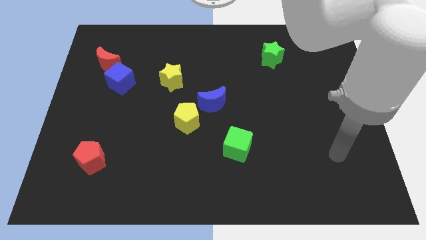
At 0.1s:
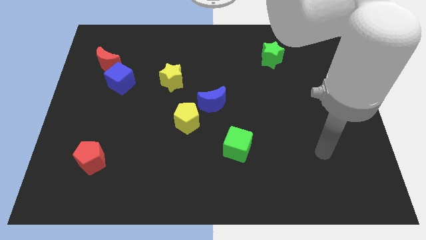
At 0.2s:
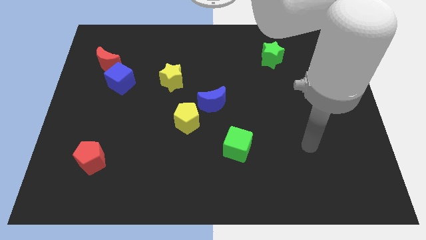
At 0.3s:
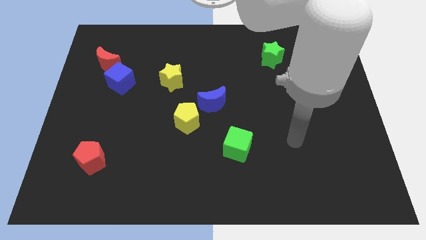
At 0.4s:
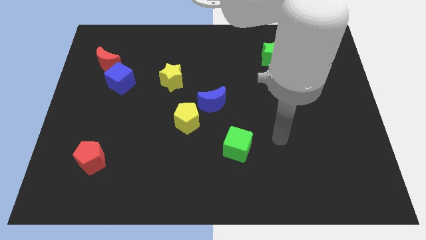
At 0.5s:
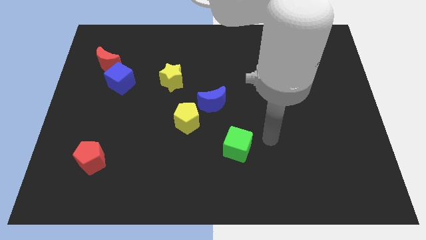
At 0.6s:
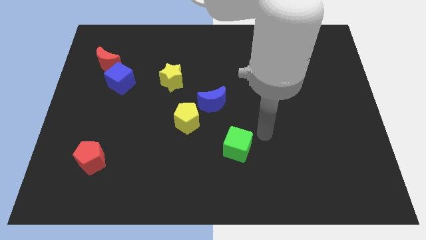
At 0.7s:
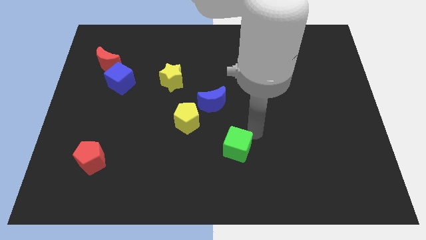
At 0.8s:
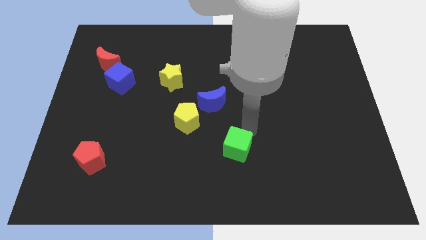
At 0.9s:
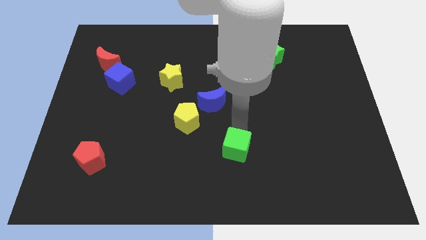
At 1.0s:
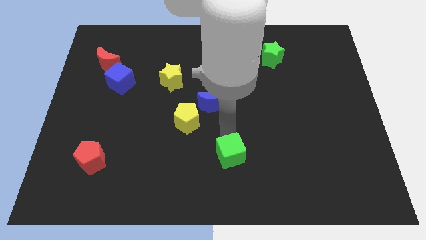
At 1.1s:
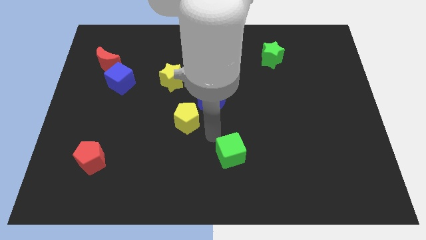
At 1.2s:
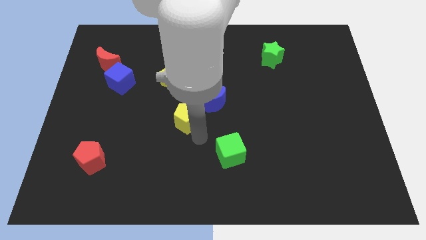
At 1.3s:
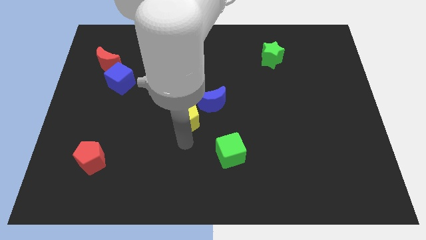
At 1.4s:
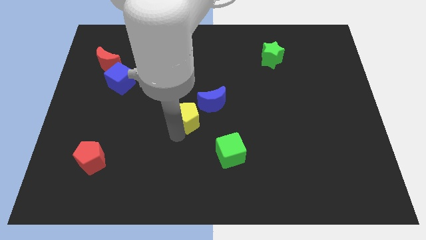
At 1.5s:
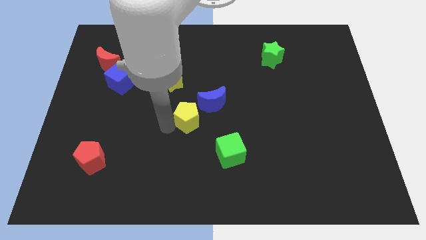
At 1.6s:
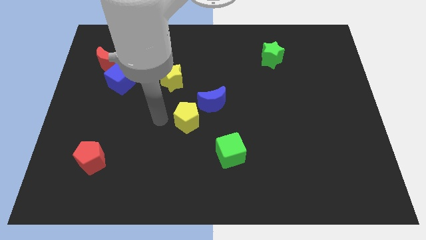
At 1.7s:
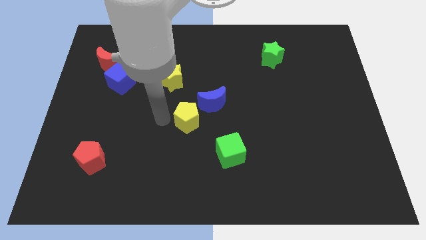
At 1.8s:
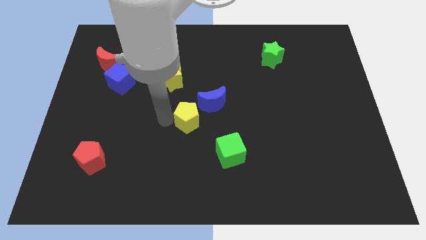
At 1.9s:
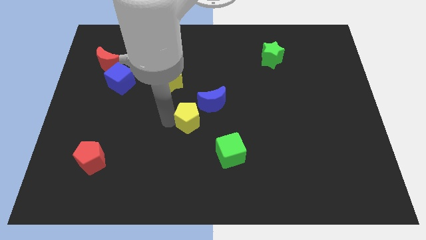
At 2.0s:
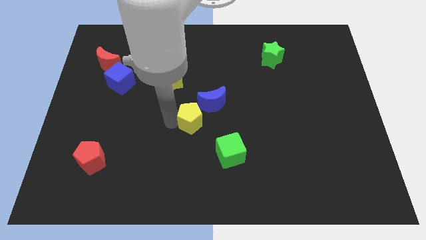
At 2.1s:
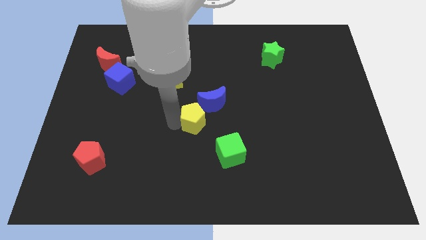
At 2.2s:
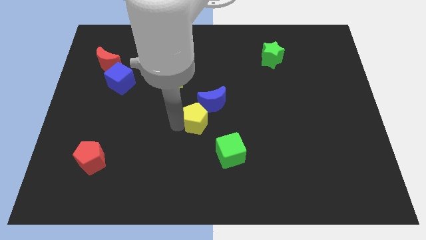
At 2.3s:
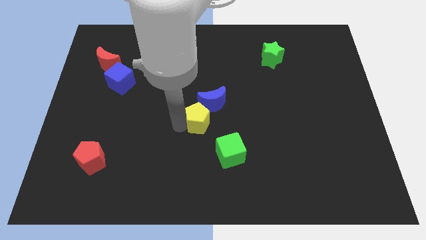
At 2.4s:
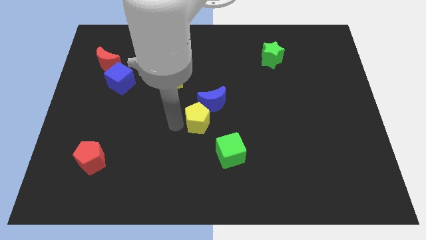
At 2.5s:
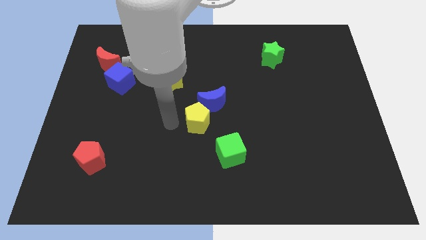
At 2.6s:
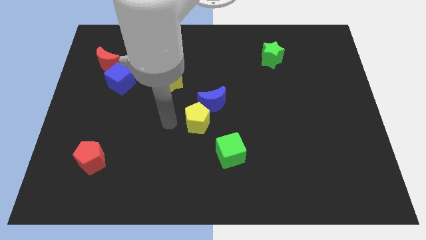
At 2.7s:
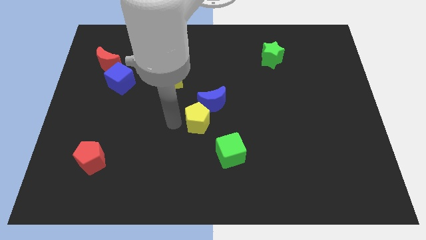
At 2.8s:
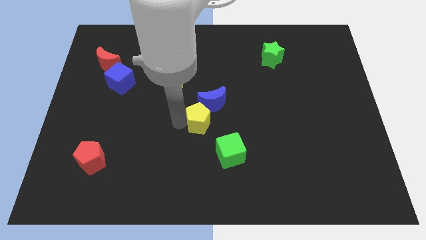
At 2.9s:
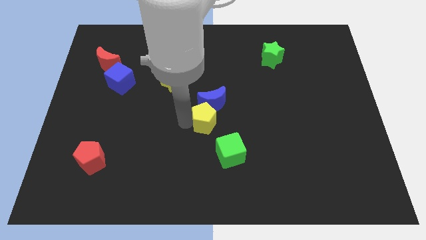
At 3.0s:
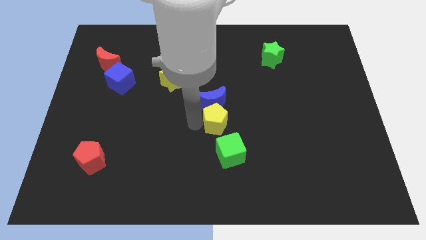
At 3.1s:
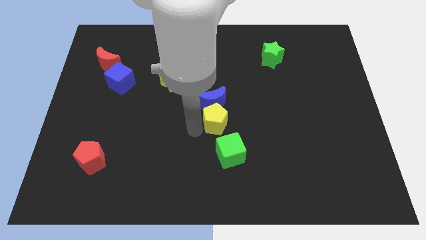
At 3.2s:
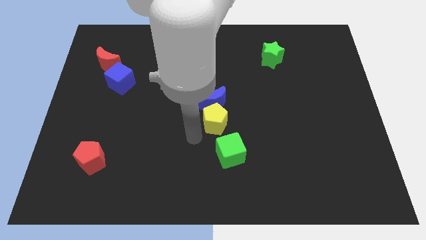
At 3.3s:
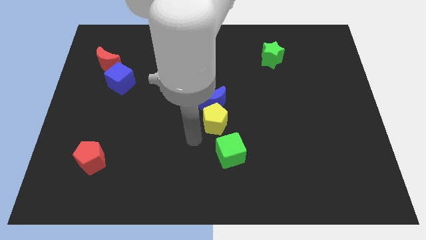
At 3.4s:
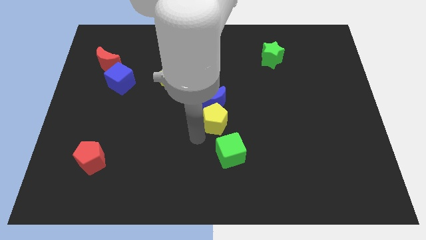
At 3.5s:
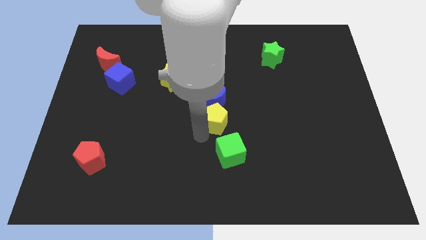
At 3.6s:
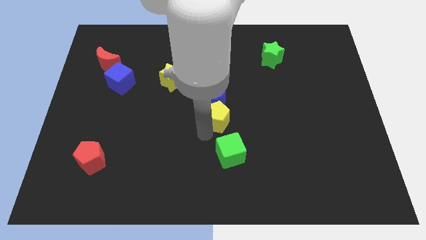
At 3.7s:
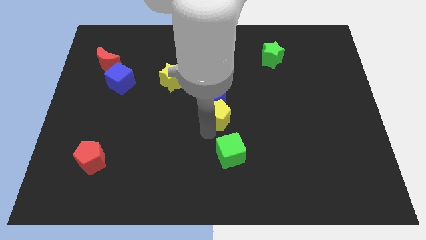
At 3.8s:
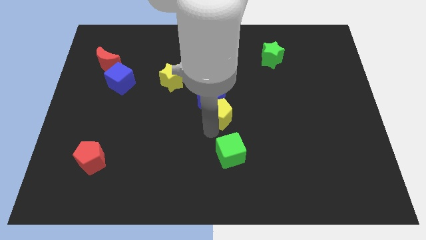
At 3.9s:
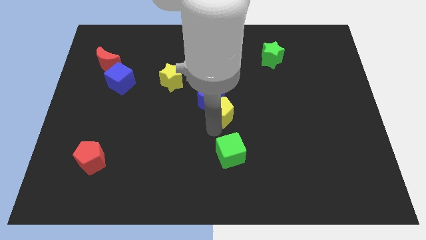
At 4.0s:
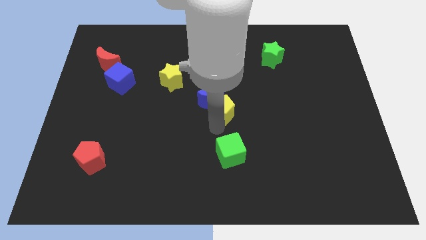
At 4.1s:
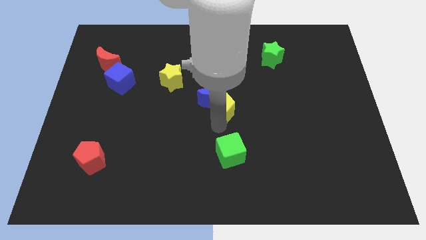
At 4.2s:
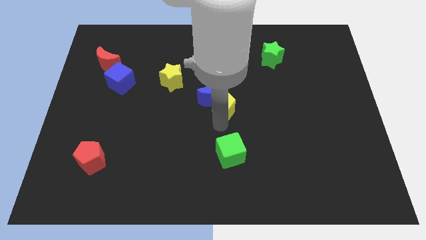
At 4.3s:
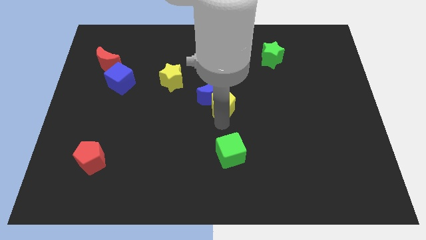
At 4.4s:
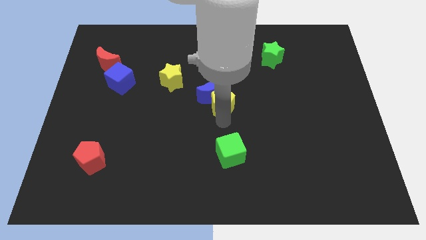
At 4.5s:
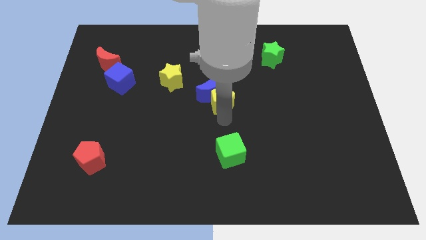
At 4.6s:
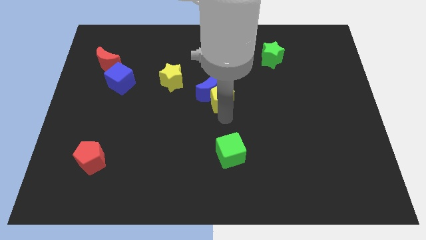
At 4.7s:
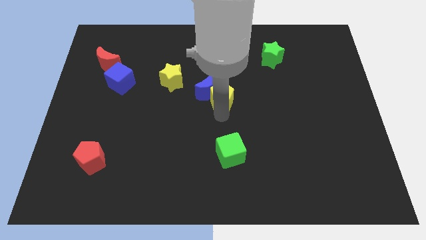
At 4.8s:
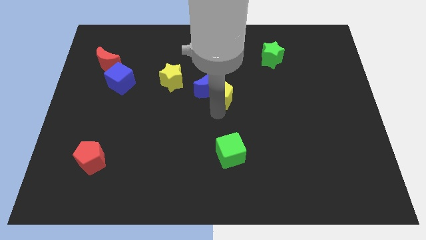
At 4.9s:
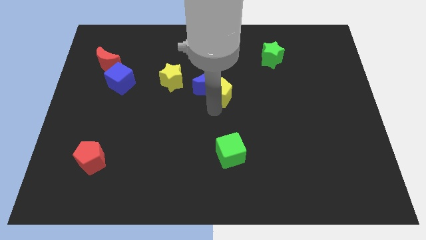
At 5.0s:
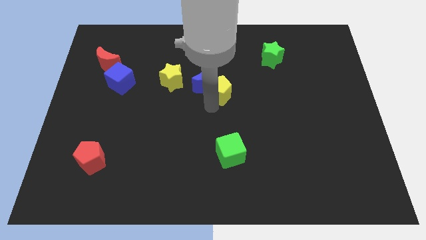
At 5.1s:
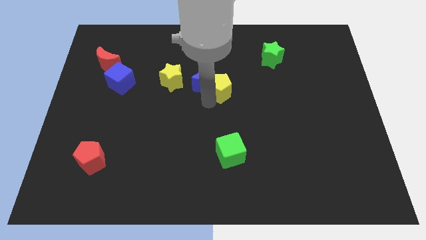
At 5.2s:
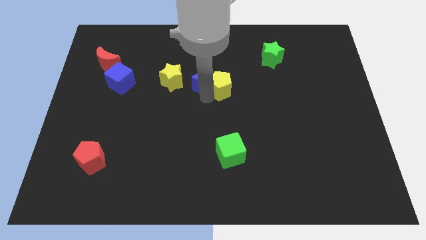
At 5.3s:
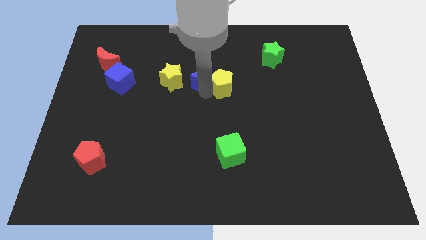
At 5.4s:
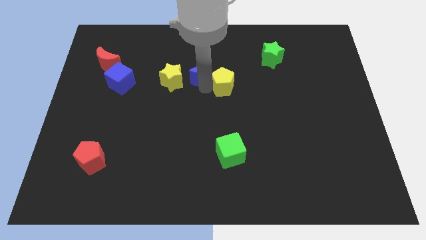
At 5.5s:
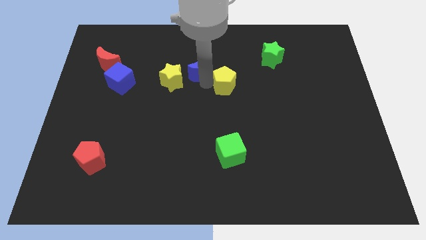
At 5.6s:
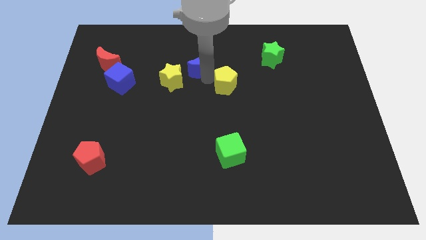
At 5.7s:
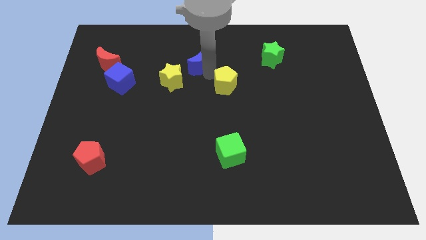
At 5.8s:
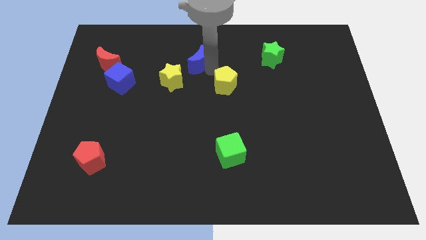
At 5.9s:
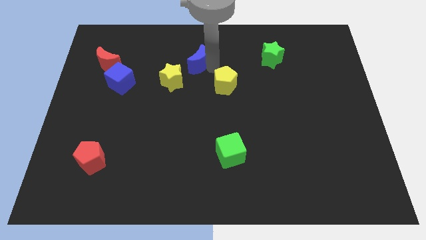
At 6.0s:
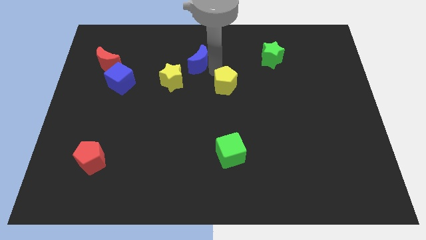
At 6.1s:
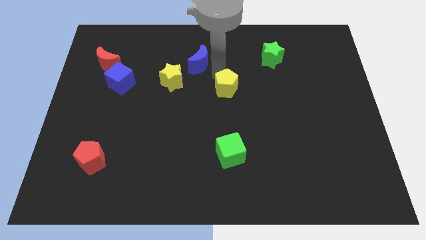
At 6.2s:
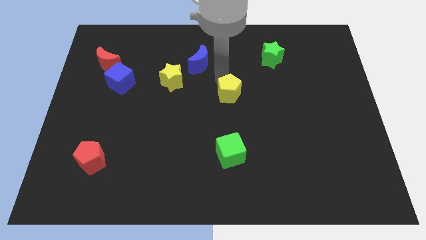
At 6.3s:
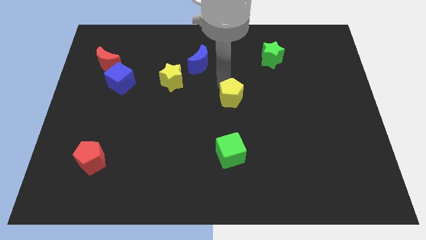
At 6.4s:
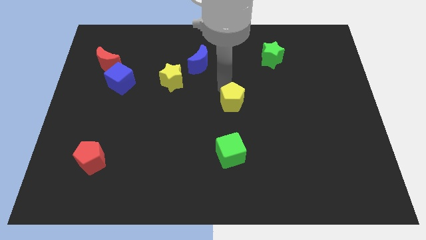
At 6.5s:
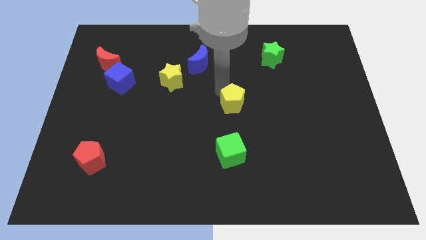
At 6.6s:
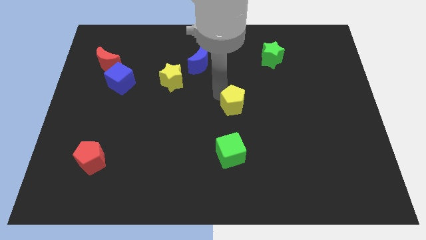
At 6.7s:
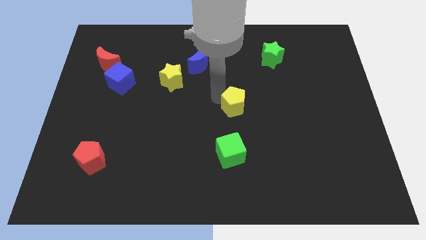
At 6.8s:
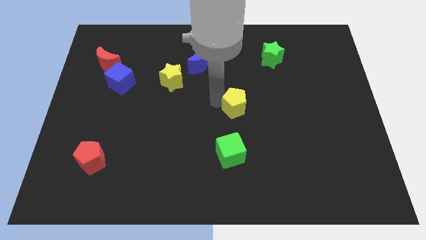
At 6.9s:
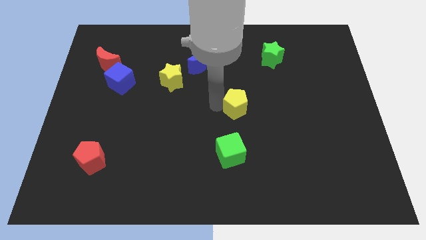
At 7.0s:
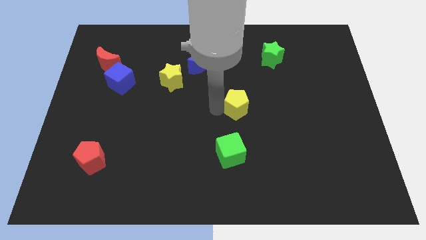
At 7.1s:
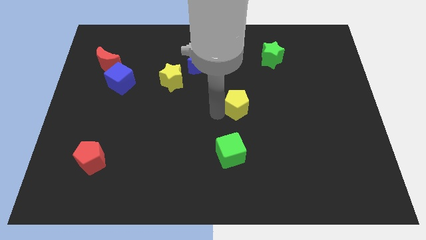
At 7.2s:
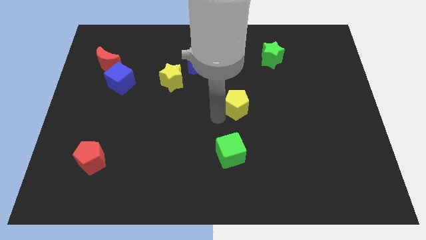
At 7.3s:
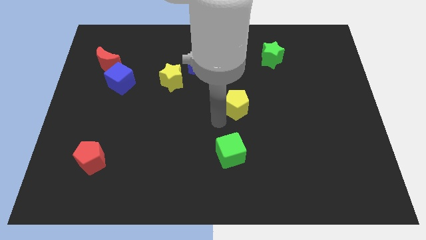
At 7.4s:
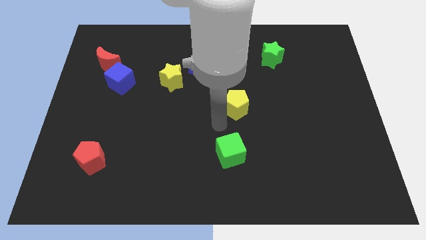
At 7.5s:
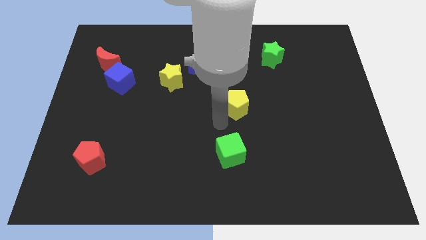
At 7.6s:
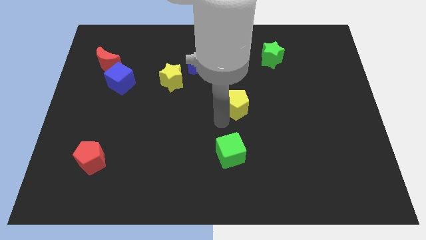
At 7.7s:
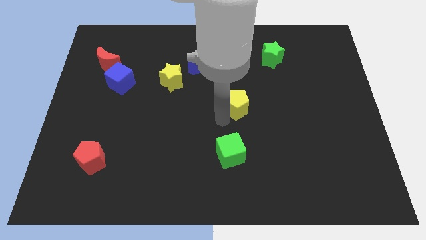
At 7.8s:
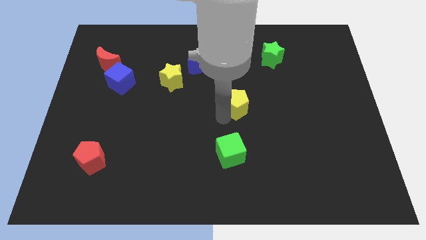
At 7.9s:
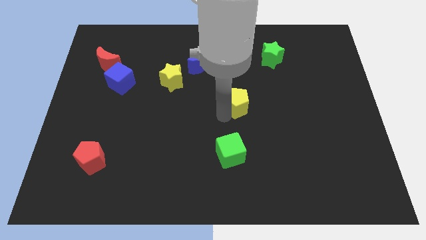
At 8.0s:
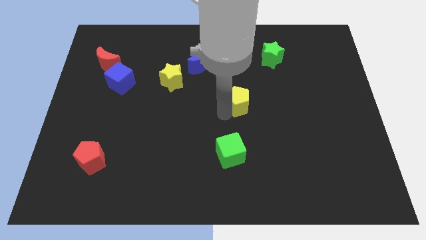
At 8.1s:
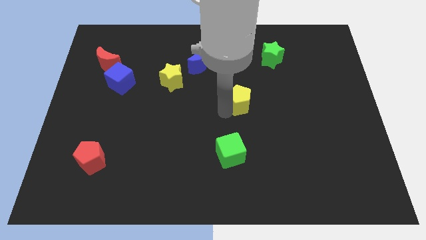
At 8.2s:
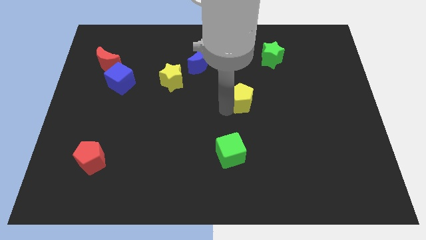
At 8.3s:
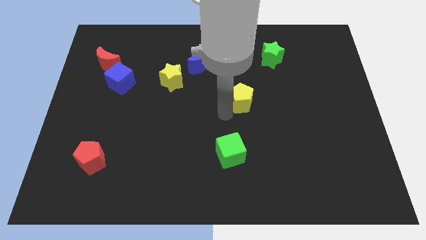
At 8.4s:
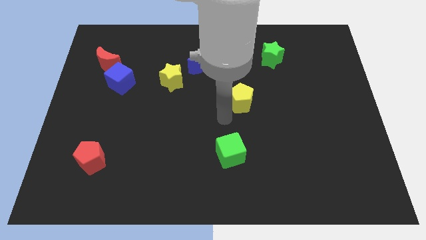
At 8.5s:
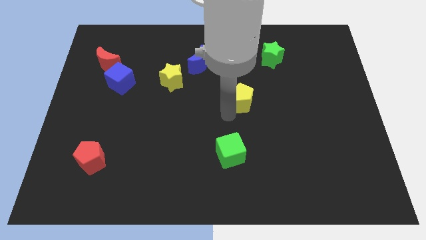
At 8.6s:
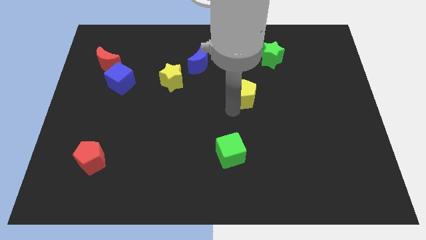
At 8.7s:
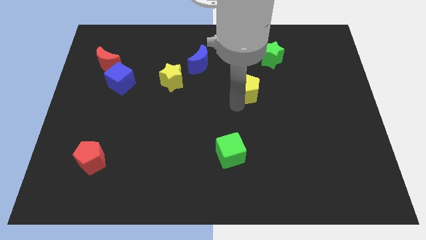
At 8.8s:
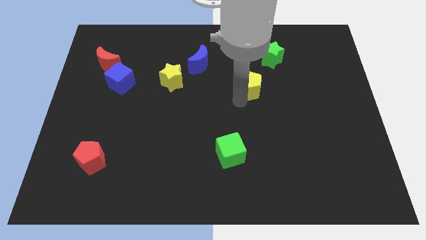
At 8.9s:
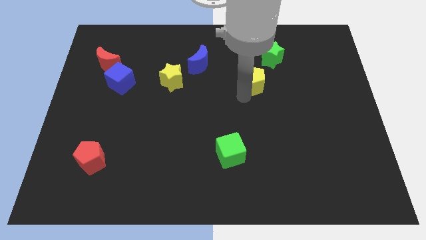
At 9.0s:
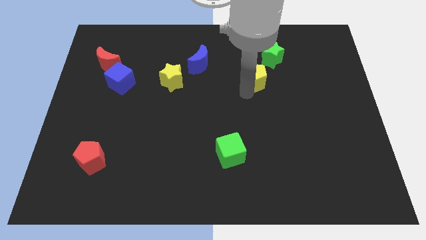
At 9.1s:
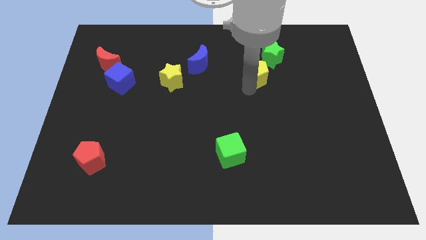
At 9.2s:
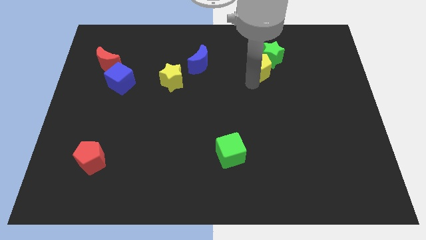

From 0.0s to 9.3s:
move the yellow pentagon next to the green star
